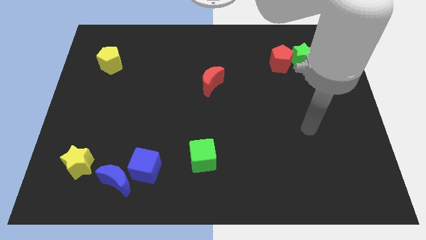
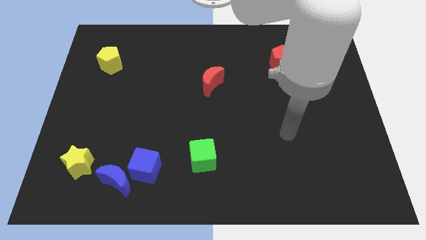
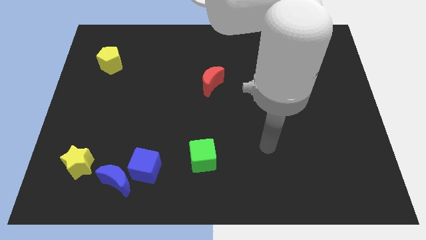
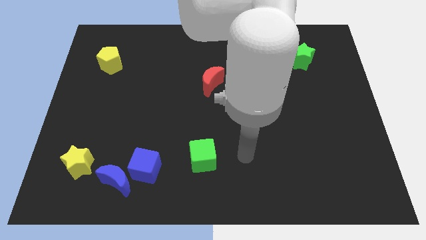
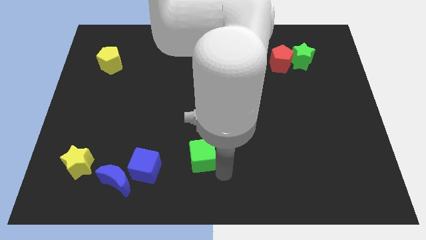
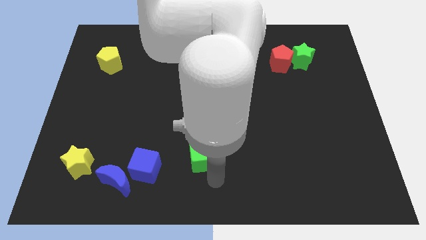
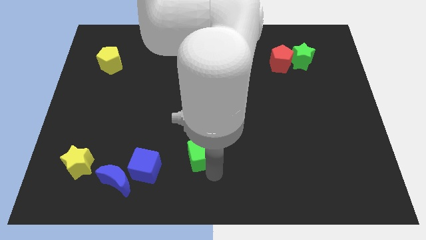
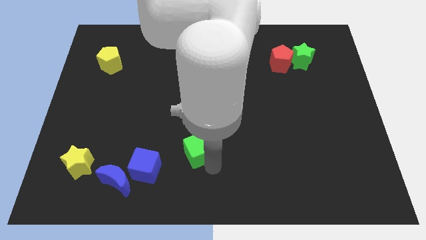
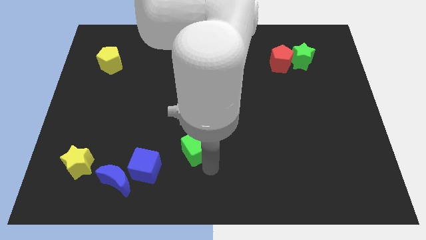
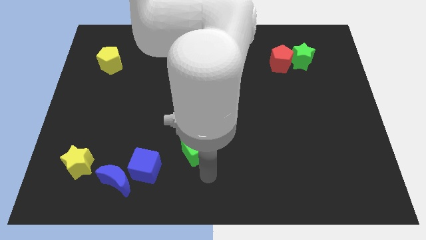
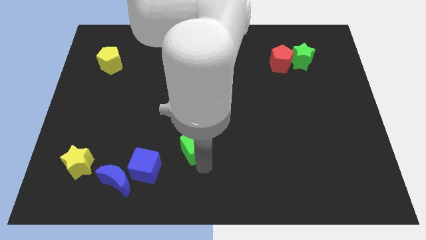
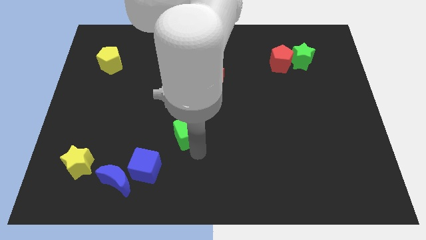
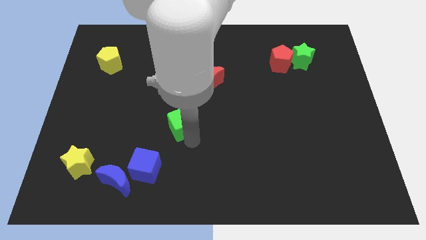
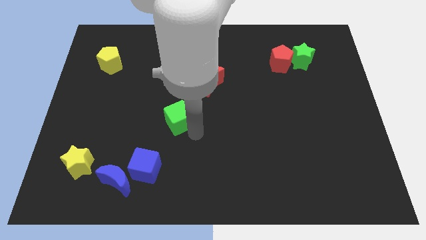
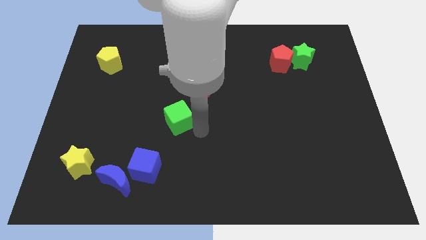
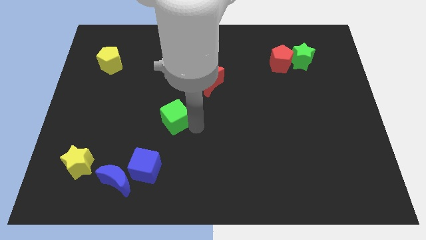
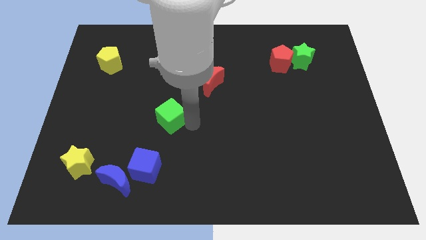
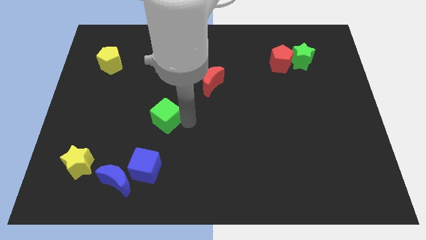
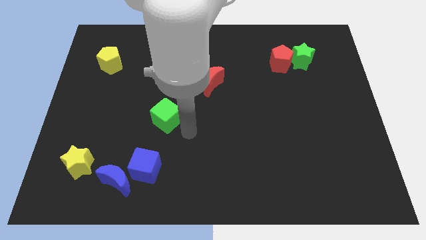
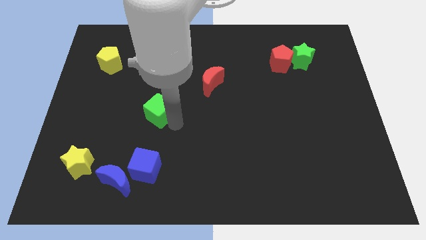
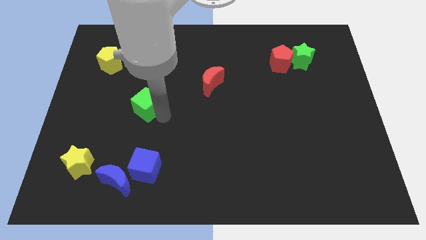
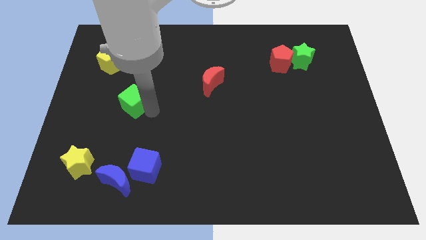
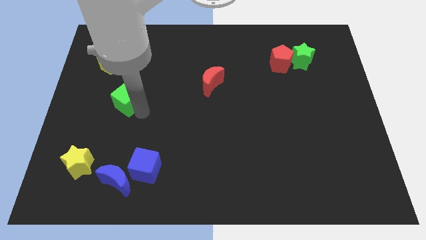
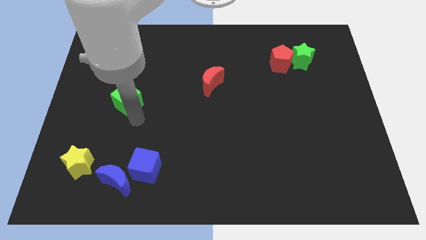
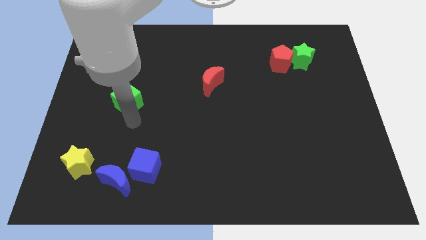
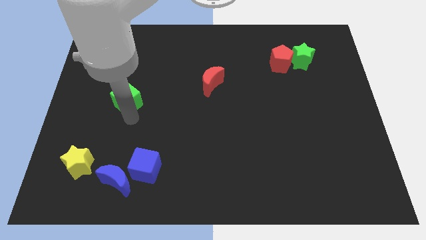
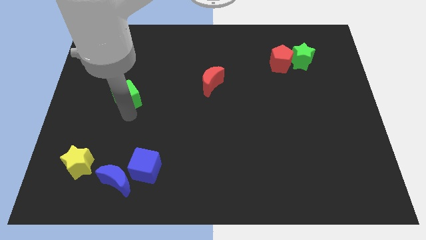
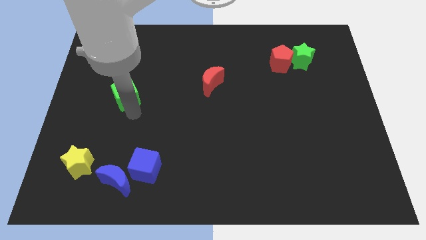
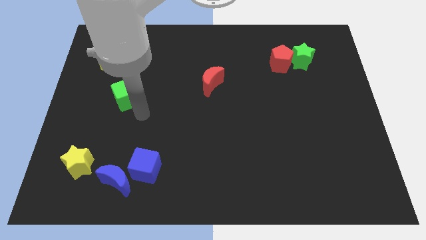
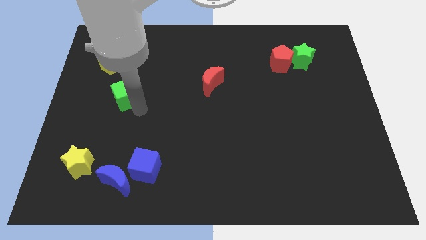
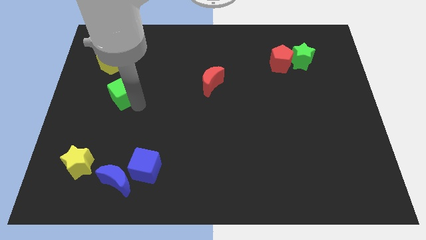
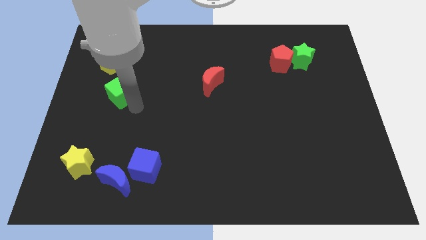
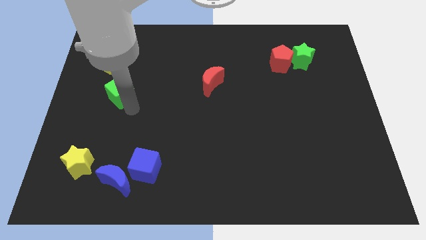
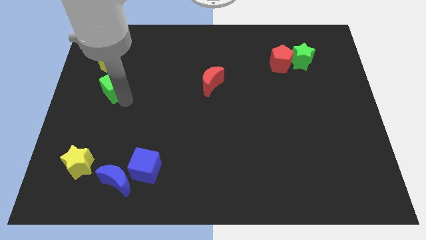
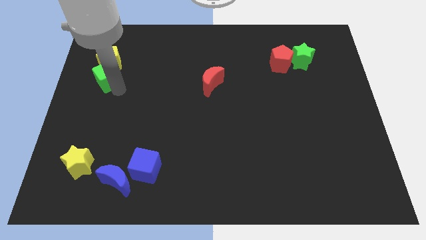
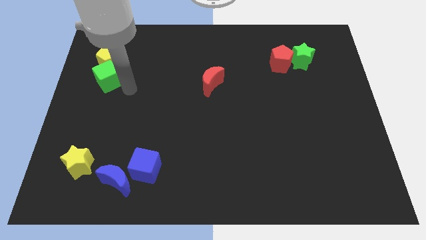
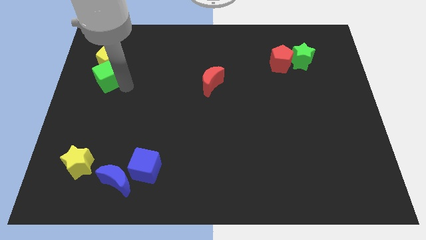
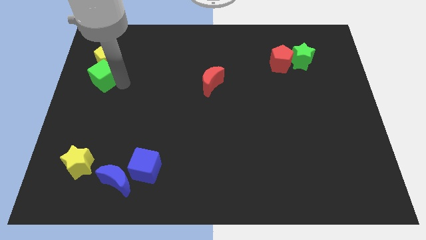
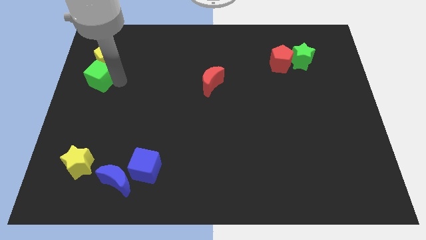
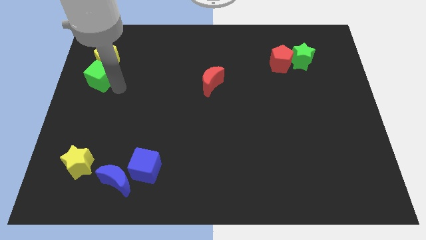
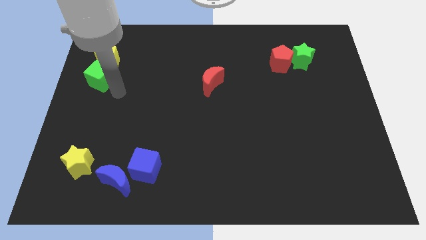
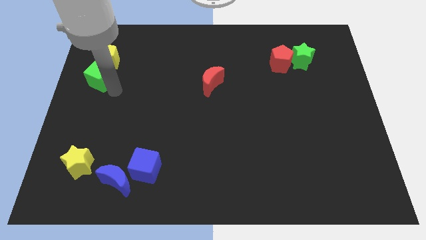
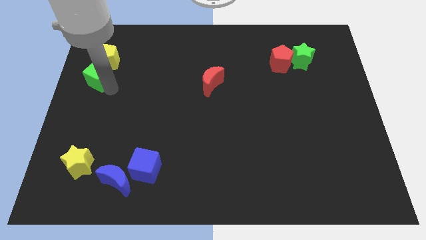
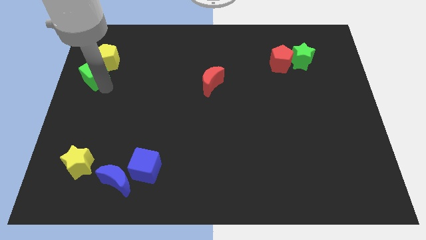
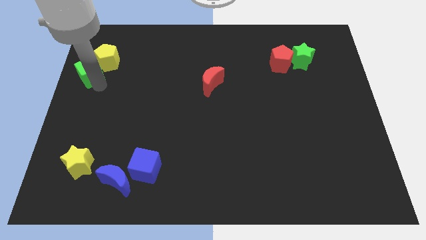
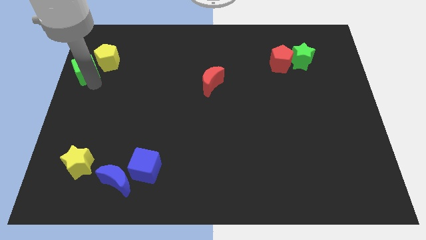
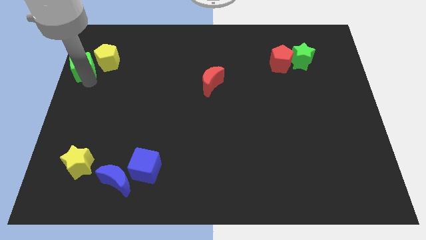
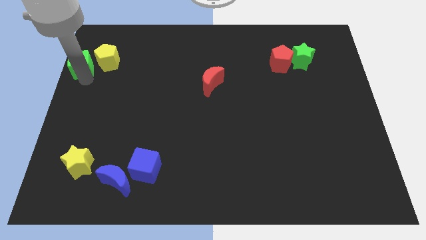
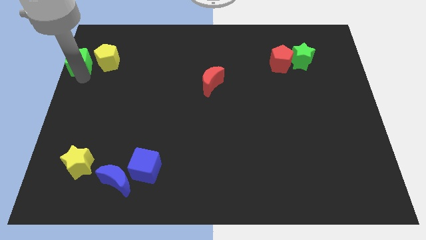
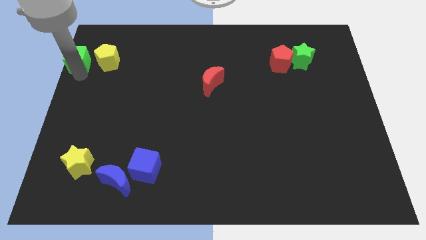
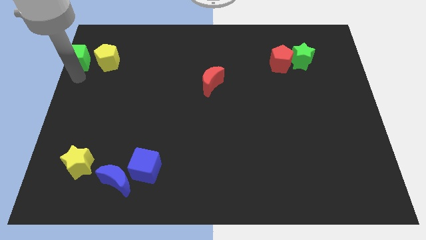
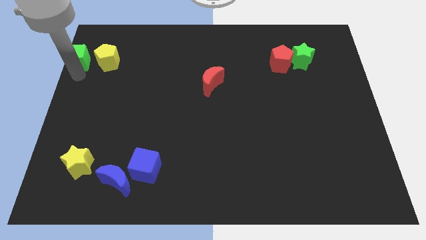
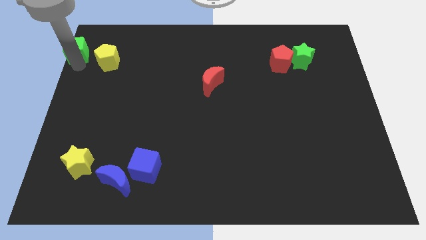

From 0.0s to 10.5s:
move the green cube to the top left
